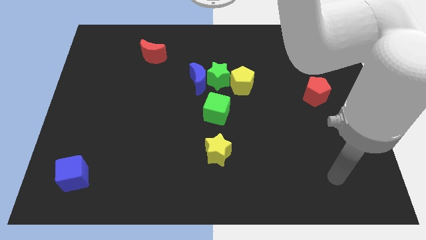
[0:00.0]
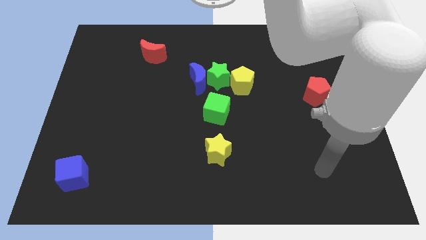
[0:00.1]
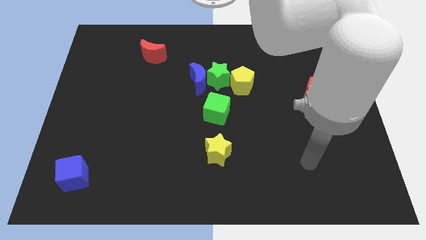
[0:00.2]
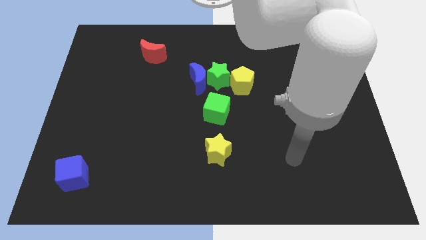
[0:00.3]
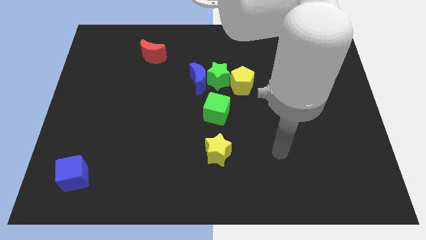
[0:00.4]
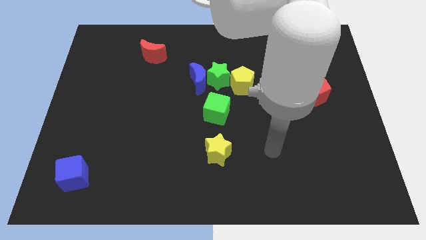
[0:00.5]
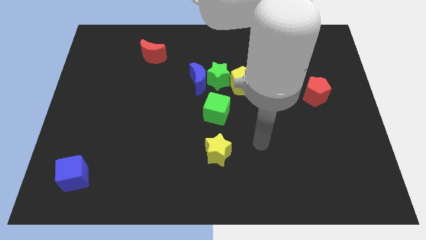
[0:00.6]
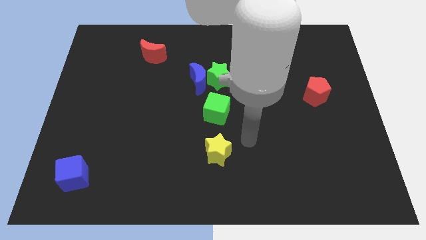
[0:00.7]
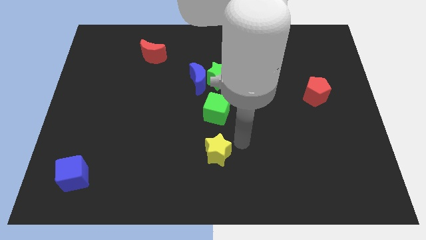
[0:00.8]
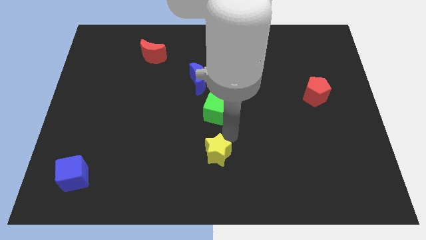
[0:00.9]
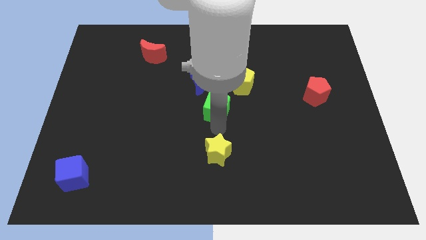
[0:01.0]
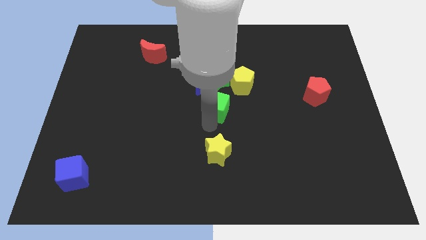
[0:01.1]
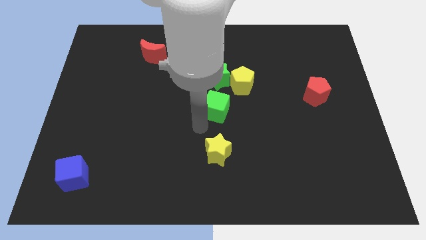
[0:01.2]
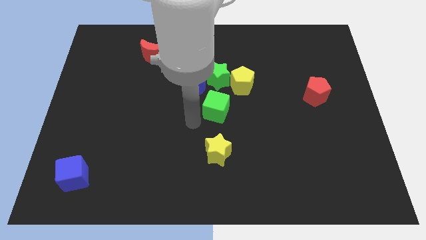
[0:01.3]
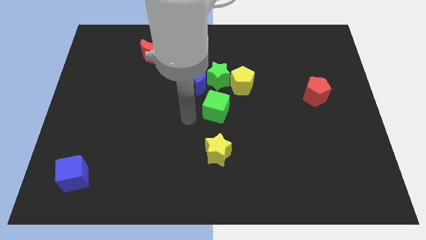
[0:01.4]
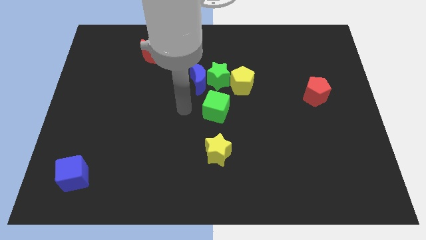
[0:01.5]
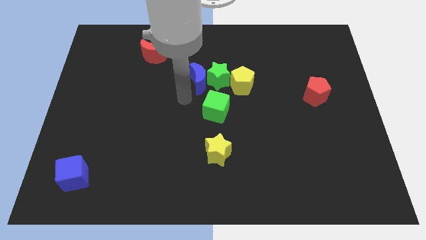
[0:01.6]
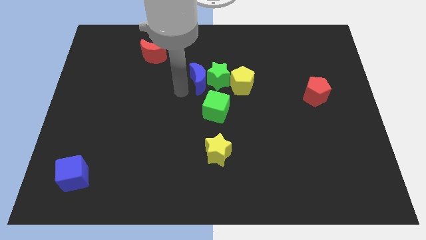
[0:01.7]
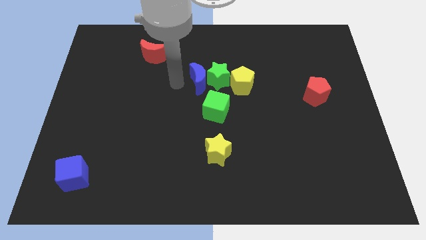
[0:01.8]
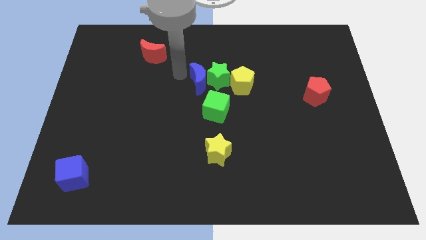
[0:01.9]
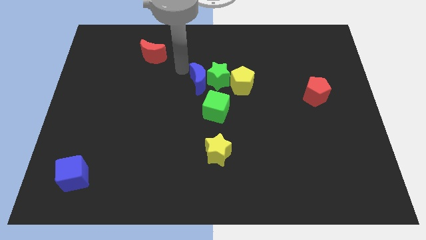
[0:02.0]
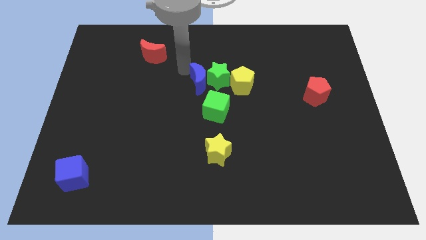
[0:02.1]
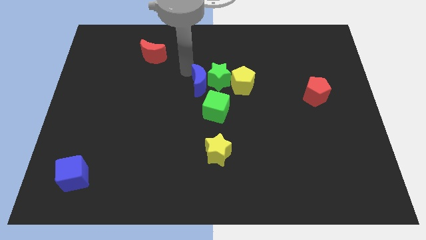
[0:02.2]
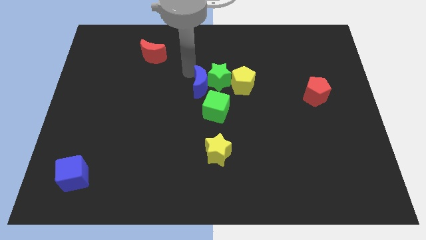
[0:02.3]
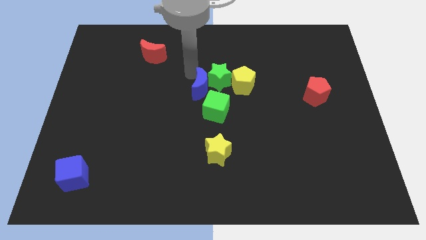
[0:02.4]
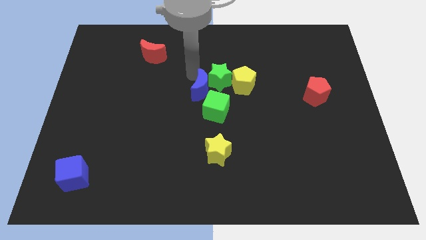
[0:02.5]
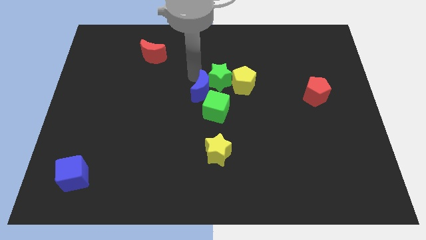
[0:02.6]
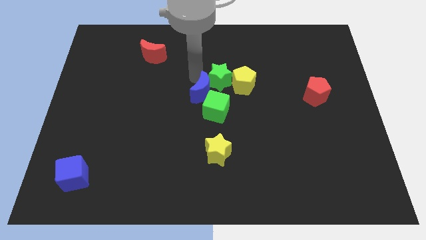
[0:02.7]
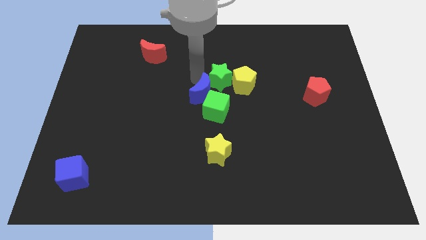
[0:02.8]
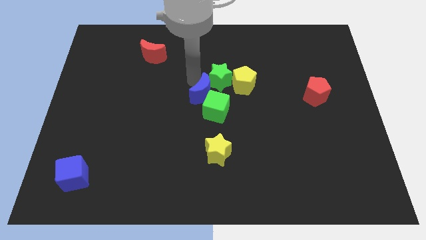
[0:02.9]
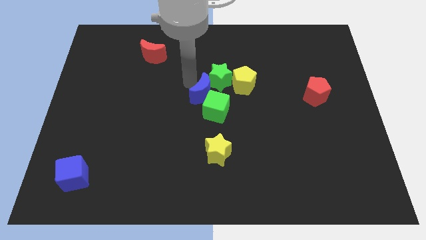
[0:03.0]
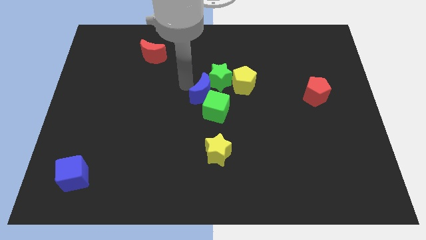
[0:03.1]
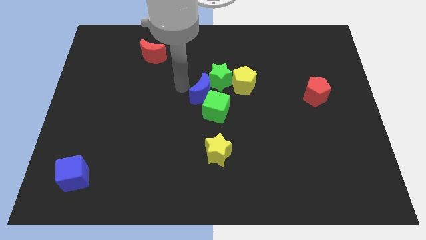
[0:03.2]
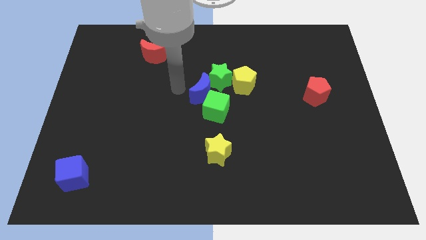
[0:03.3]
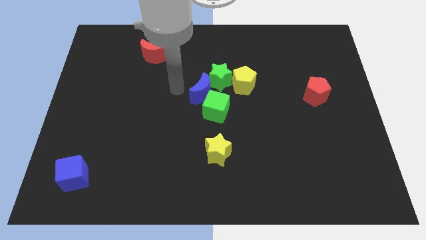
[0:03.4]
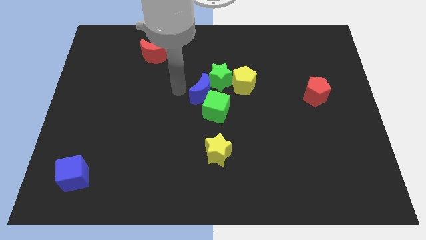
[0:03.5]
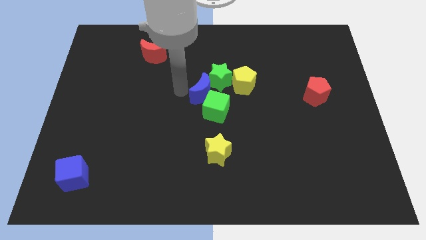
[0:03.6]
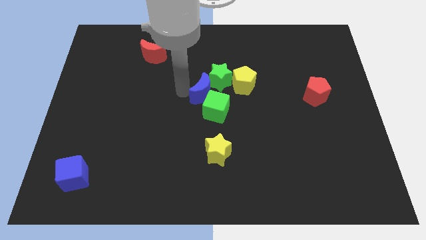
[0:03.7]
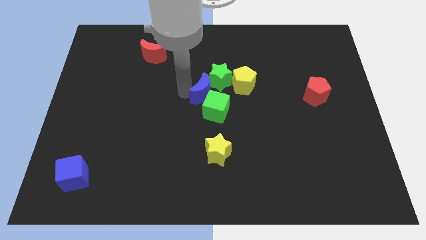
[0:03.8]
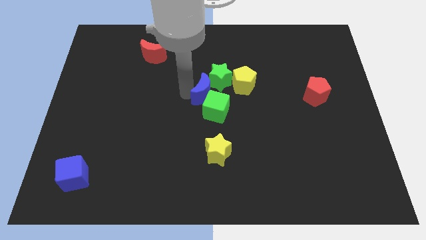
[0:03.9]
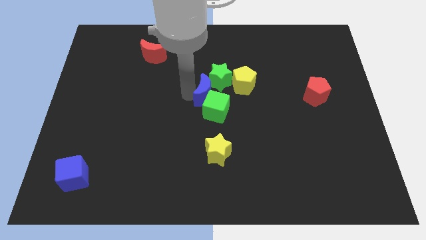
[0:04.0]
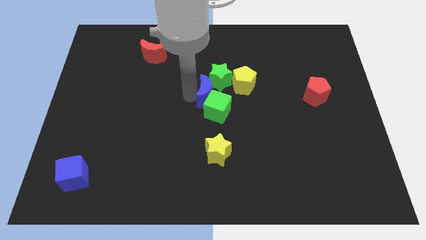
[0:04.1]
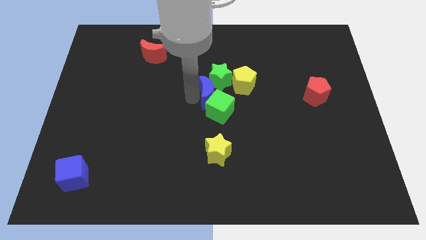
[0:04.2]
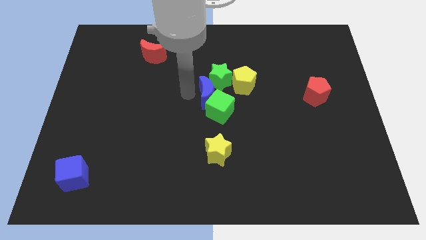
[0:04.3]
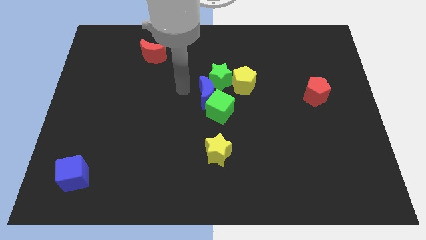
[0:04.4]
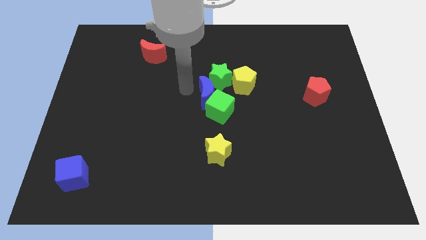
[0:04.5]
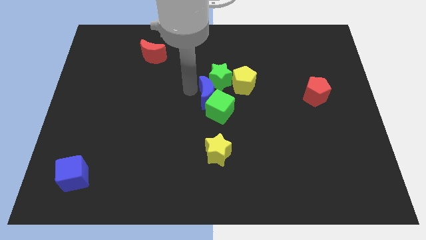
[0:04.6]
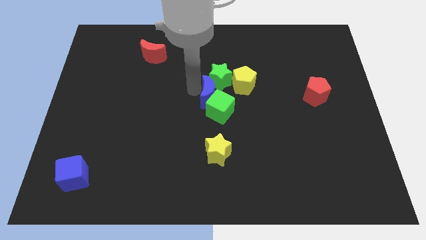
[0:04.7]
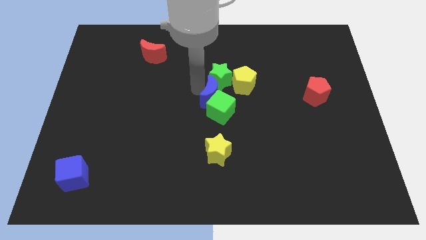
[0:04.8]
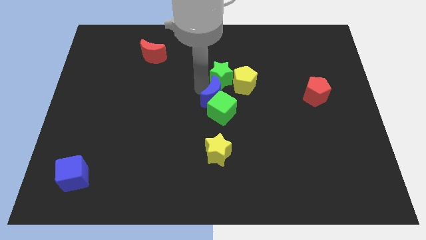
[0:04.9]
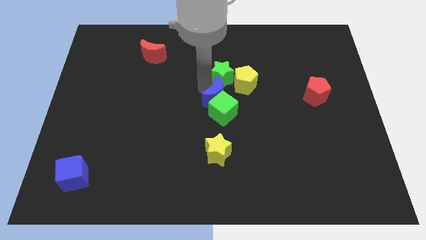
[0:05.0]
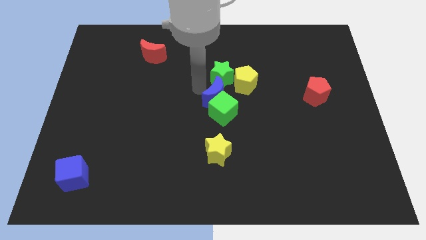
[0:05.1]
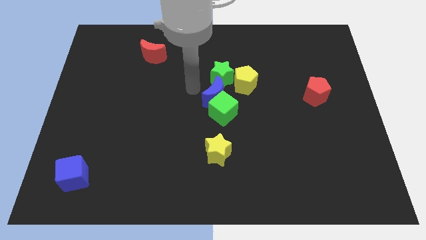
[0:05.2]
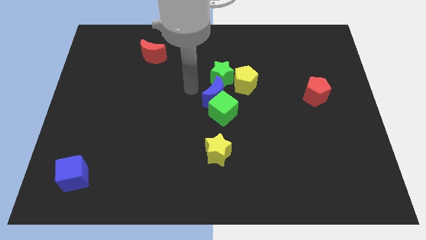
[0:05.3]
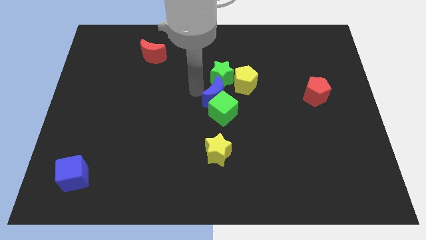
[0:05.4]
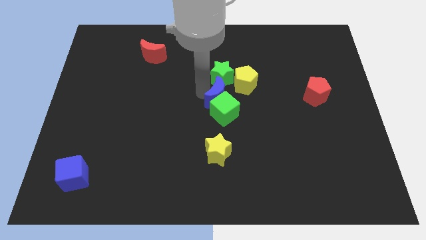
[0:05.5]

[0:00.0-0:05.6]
slightly slide the blue moon down and then right

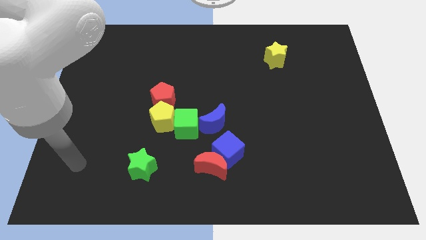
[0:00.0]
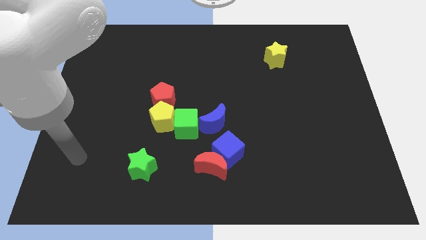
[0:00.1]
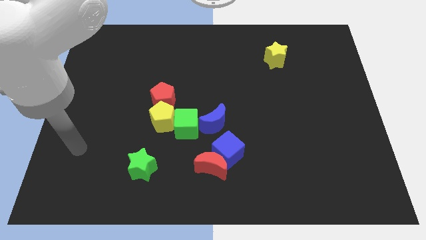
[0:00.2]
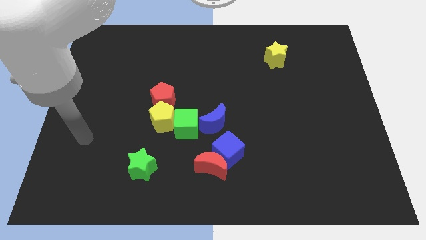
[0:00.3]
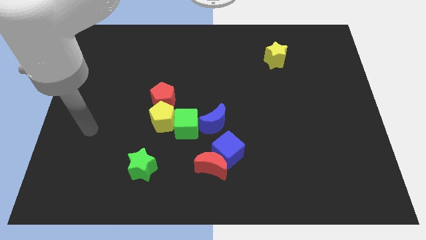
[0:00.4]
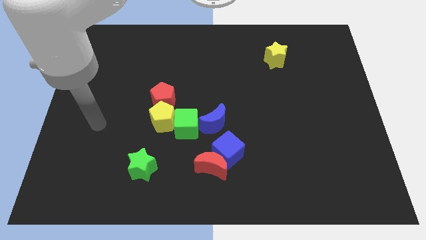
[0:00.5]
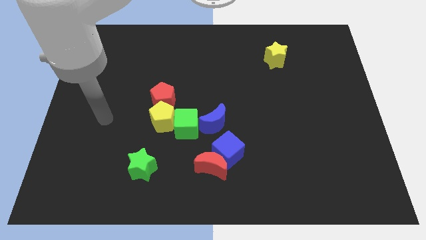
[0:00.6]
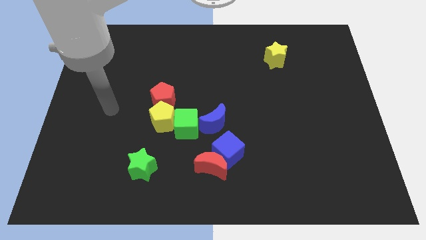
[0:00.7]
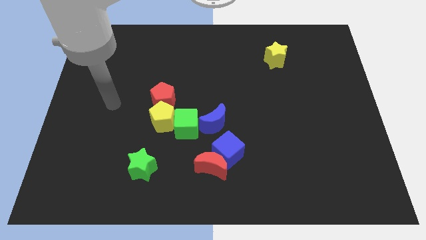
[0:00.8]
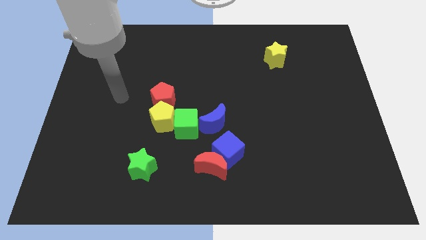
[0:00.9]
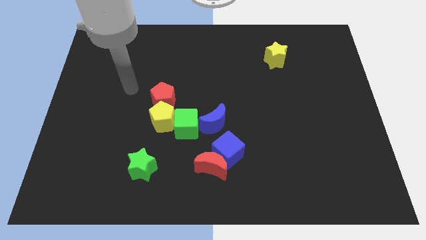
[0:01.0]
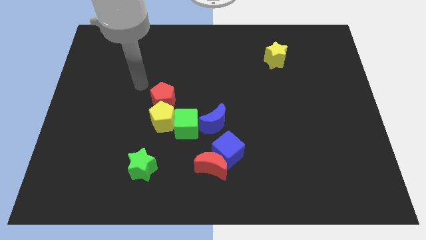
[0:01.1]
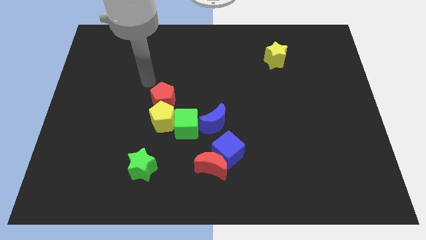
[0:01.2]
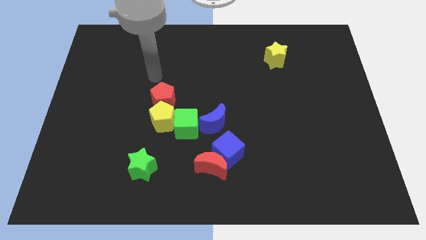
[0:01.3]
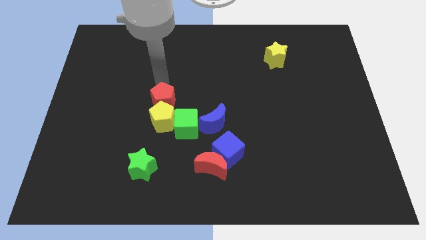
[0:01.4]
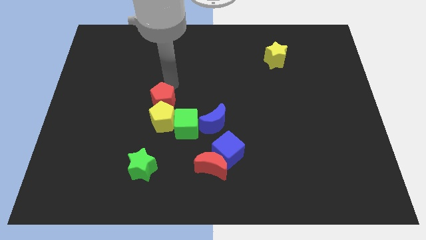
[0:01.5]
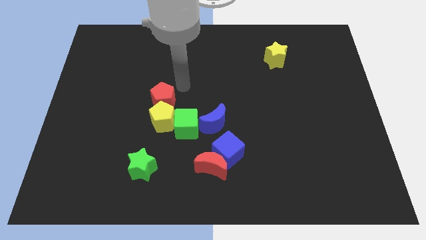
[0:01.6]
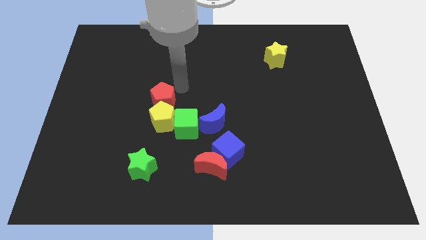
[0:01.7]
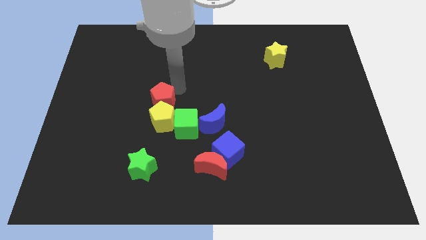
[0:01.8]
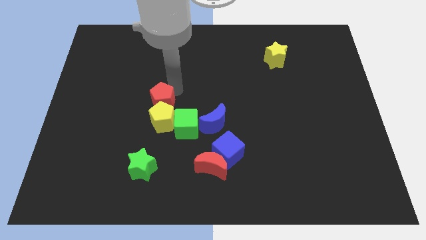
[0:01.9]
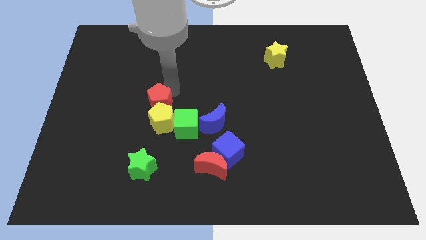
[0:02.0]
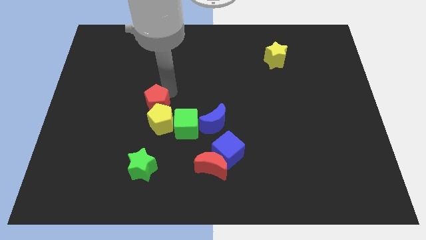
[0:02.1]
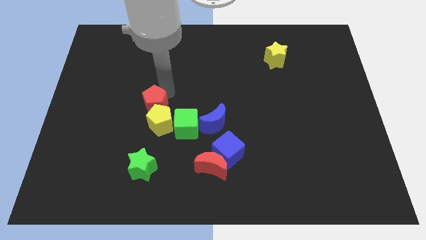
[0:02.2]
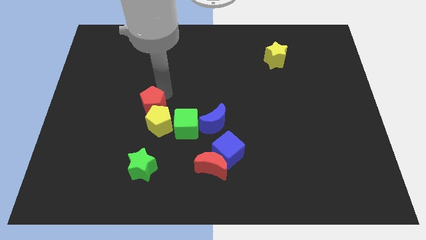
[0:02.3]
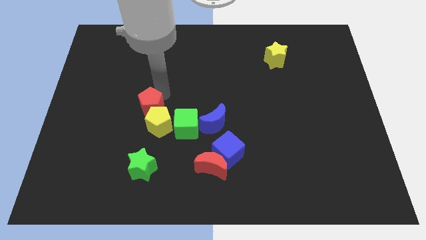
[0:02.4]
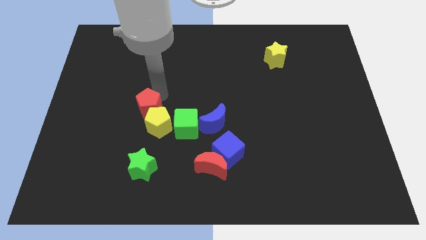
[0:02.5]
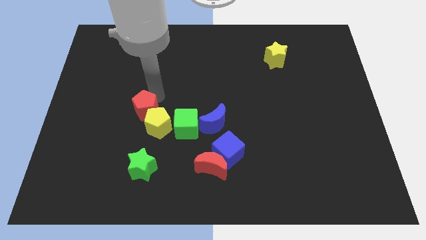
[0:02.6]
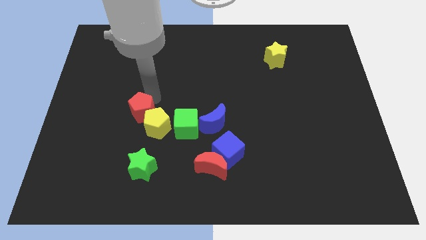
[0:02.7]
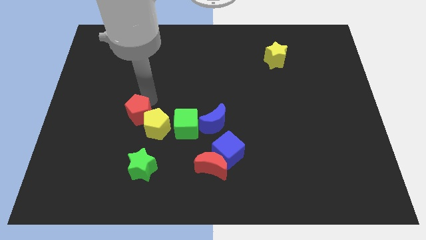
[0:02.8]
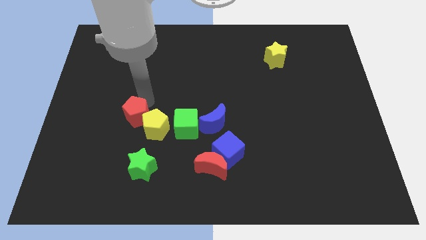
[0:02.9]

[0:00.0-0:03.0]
slightly move the red pentagon diagonally down and left
